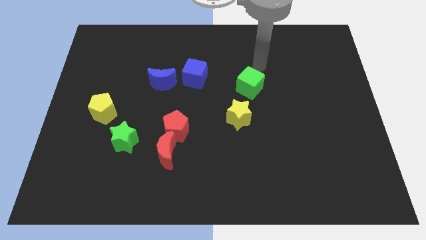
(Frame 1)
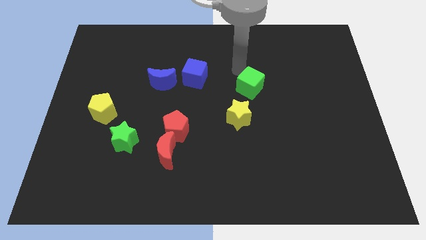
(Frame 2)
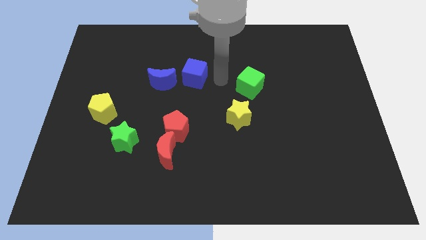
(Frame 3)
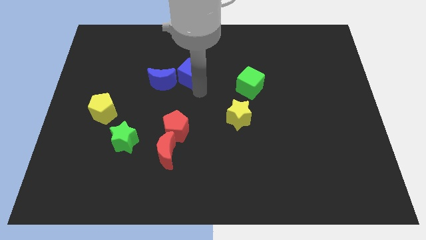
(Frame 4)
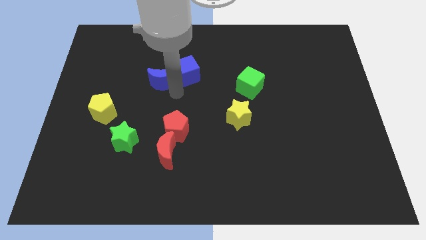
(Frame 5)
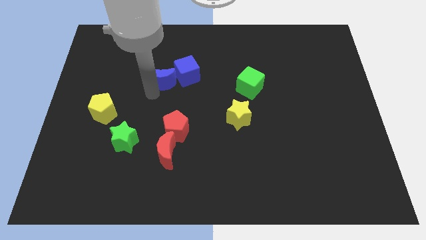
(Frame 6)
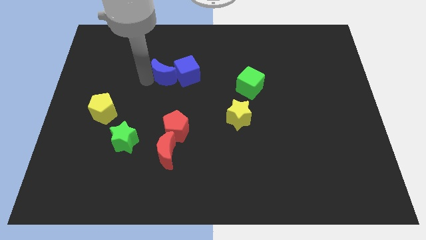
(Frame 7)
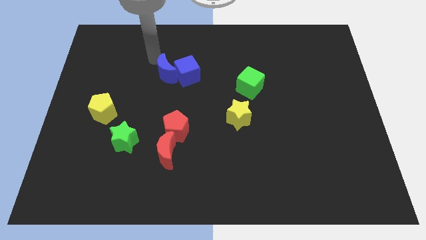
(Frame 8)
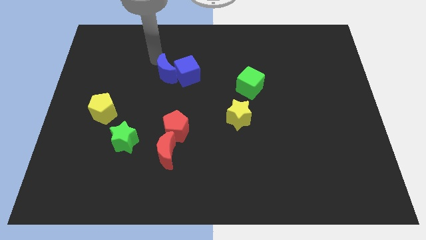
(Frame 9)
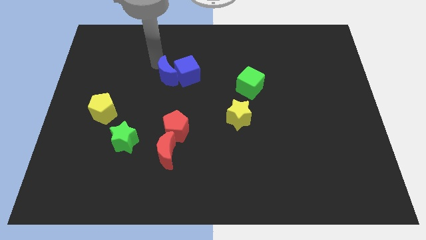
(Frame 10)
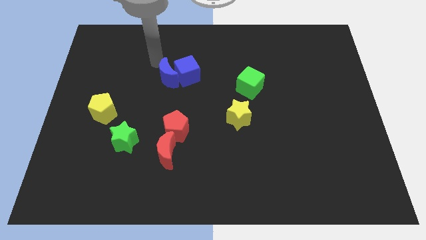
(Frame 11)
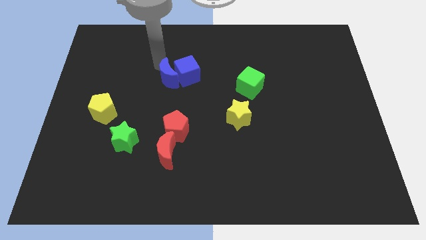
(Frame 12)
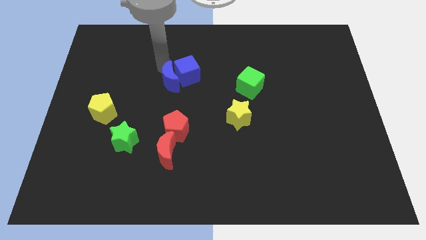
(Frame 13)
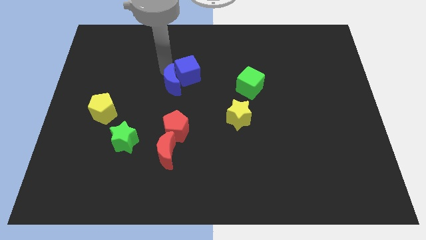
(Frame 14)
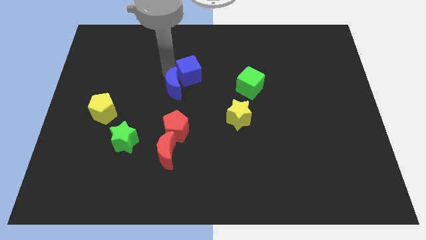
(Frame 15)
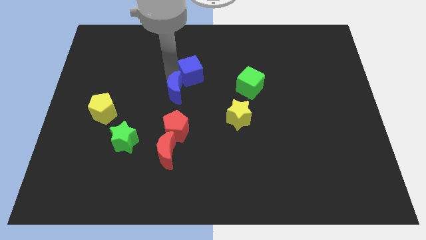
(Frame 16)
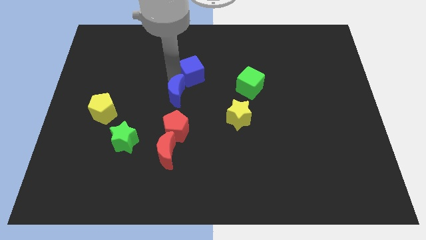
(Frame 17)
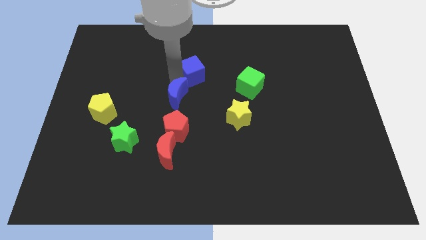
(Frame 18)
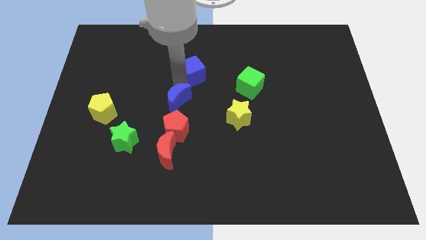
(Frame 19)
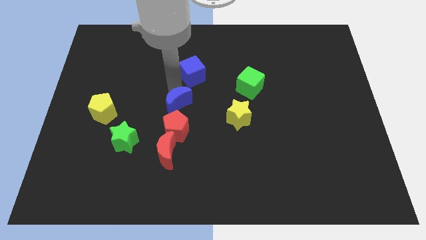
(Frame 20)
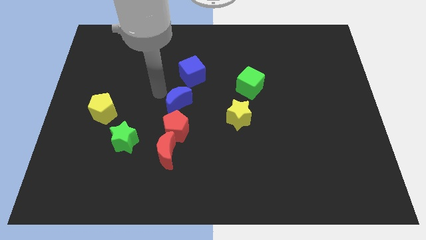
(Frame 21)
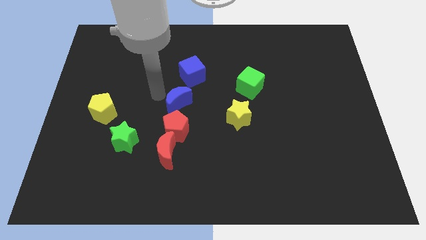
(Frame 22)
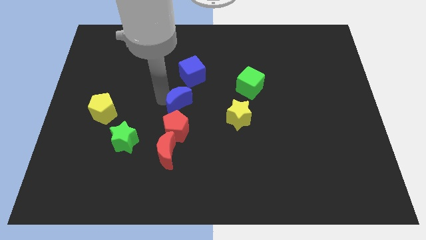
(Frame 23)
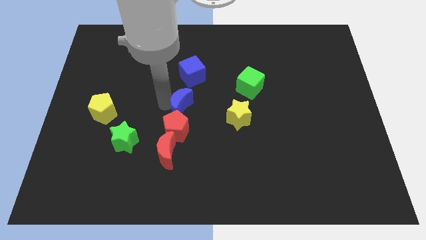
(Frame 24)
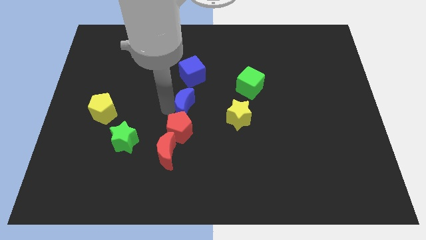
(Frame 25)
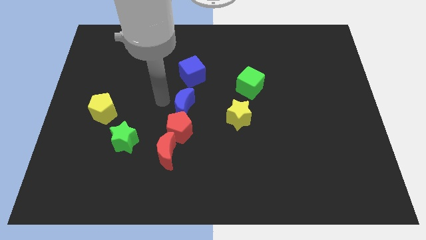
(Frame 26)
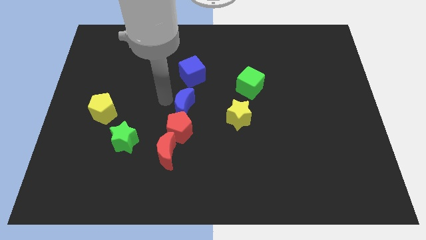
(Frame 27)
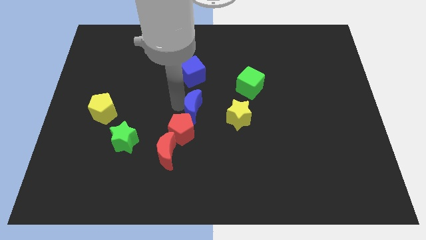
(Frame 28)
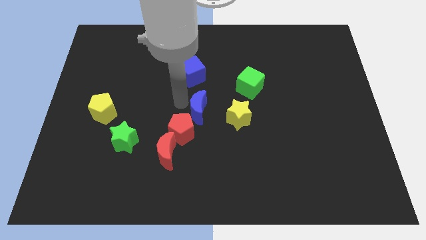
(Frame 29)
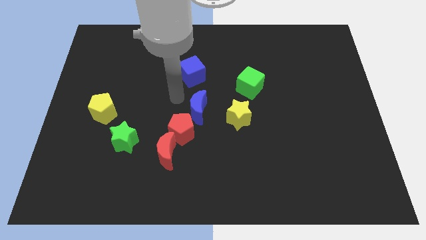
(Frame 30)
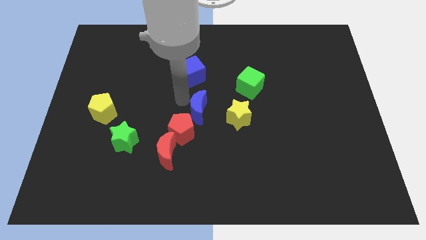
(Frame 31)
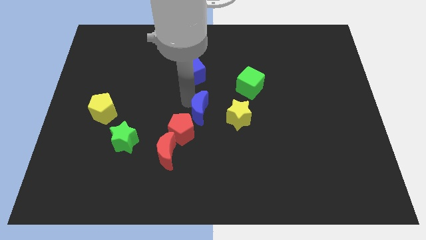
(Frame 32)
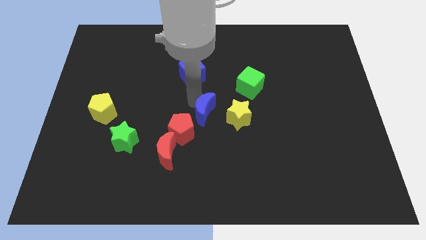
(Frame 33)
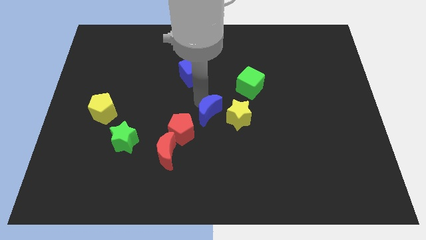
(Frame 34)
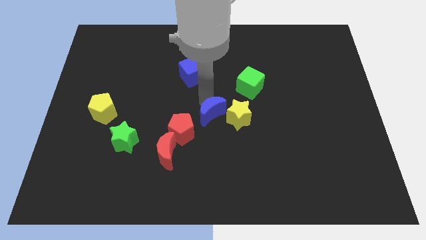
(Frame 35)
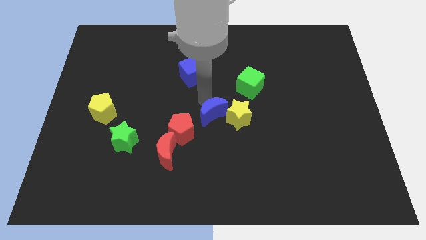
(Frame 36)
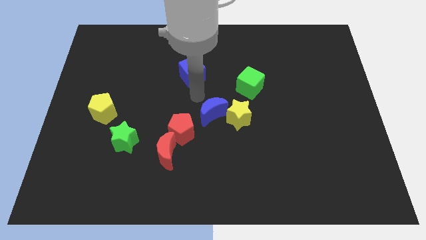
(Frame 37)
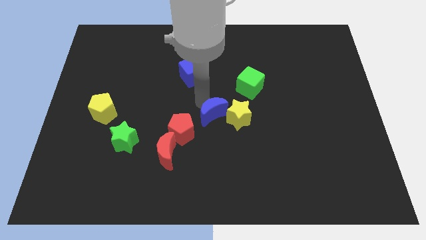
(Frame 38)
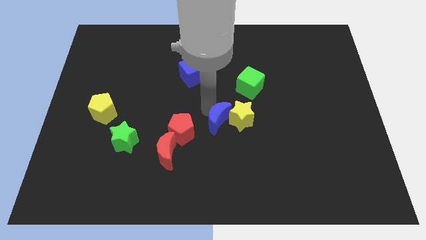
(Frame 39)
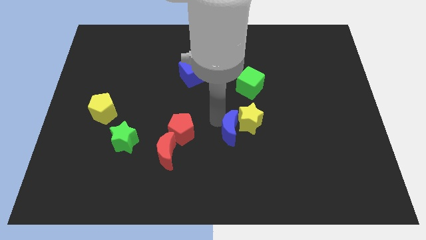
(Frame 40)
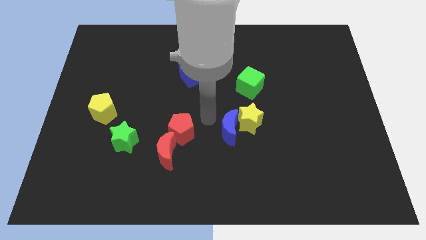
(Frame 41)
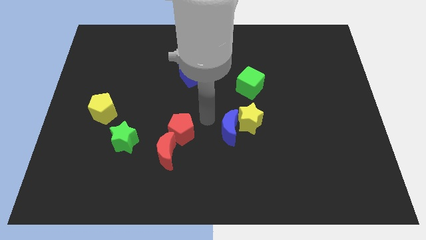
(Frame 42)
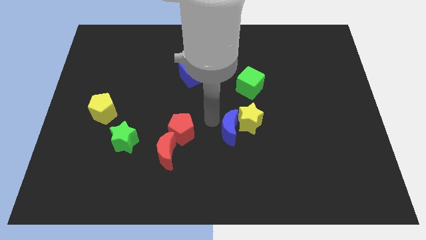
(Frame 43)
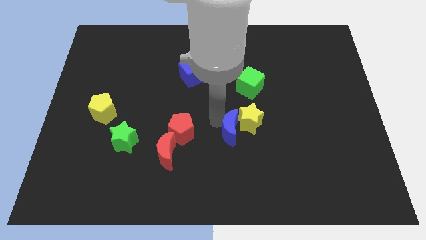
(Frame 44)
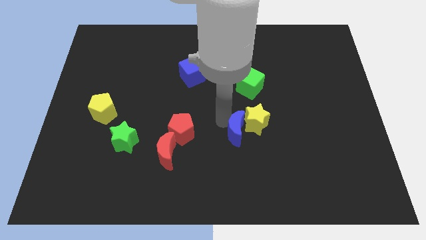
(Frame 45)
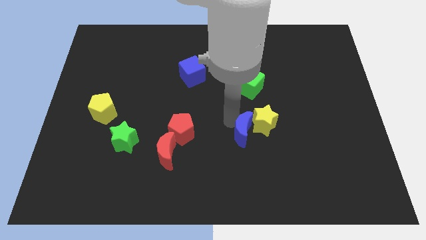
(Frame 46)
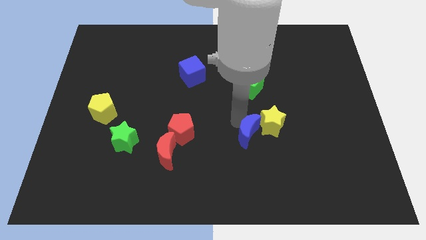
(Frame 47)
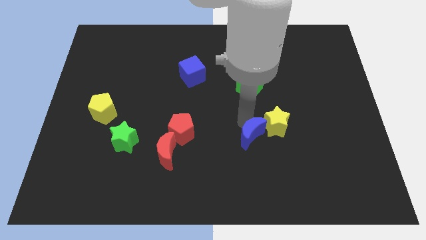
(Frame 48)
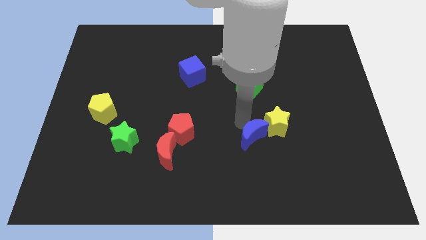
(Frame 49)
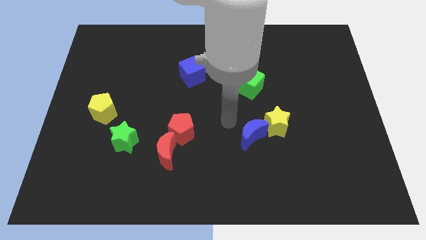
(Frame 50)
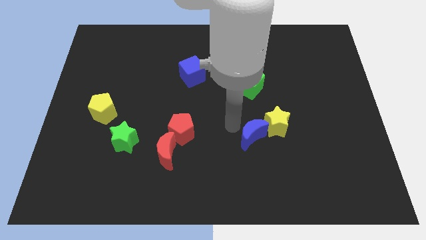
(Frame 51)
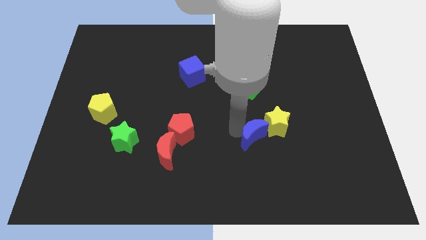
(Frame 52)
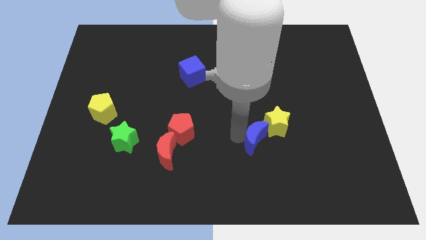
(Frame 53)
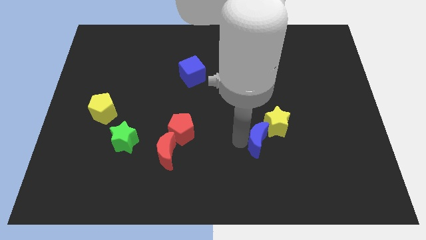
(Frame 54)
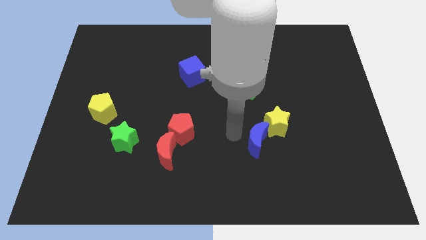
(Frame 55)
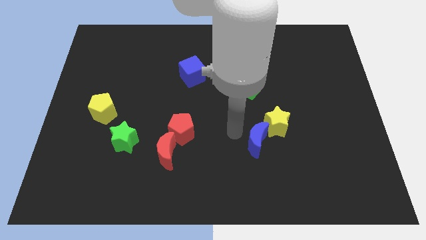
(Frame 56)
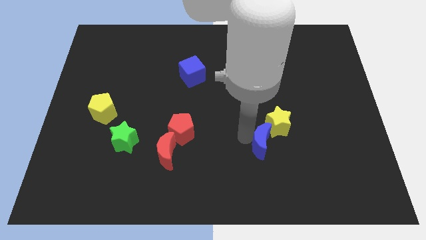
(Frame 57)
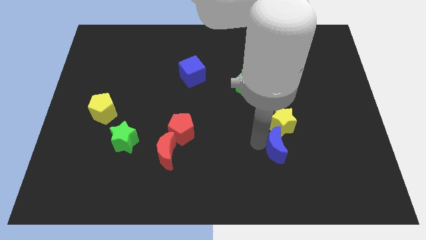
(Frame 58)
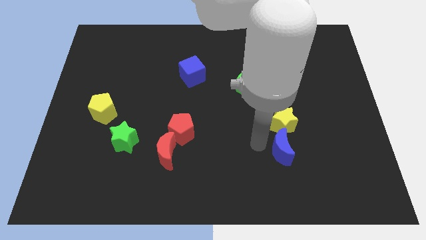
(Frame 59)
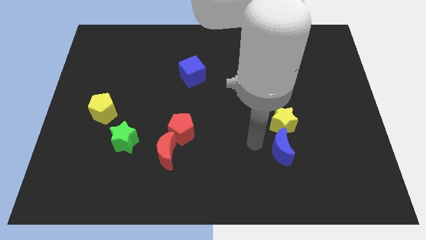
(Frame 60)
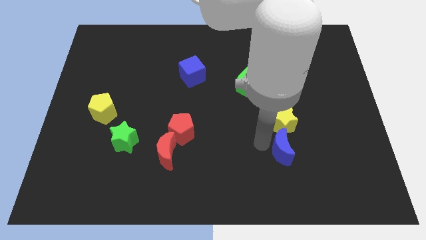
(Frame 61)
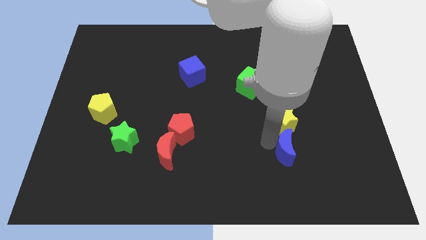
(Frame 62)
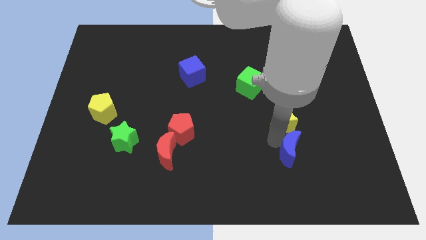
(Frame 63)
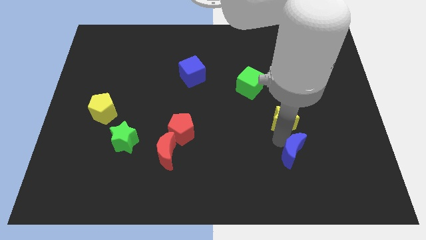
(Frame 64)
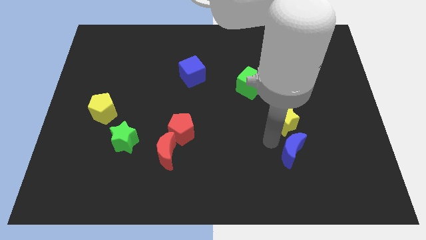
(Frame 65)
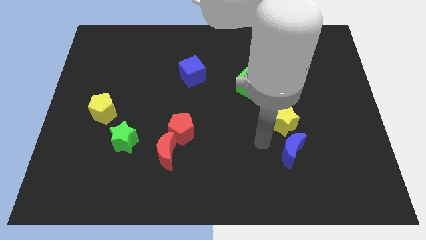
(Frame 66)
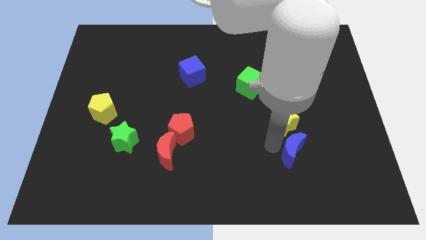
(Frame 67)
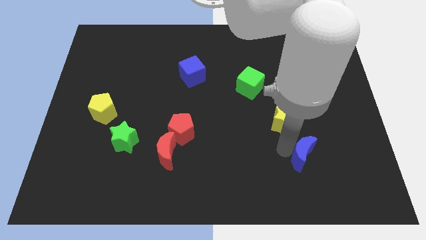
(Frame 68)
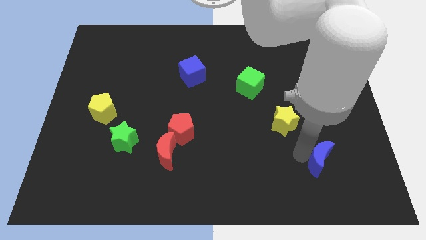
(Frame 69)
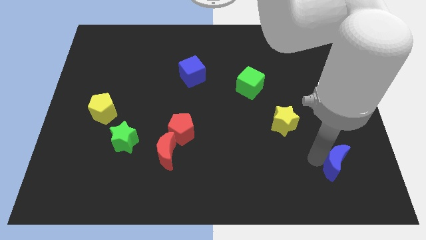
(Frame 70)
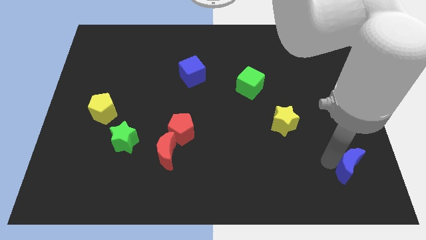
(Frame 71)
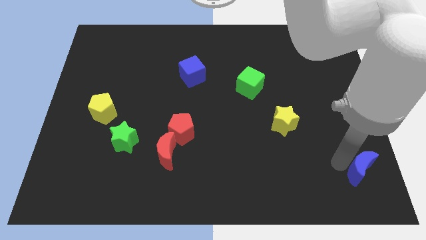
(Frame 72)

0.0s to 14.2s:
push the blue moon to the bottom right
